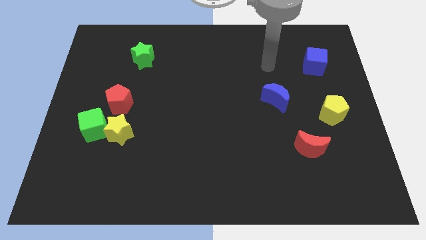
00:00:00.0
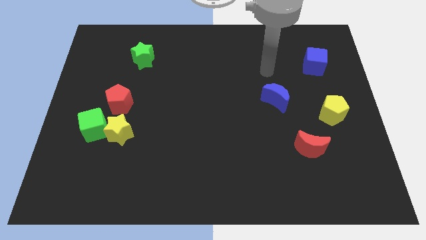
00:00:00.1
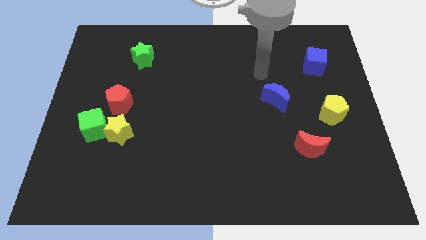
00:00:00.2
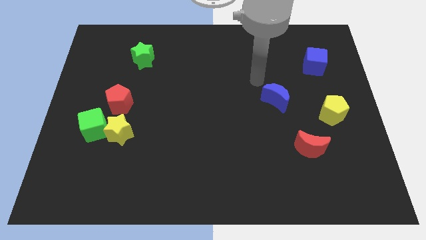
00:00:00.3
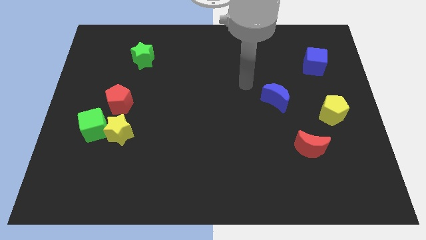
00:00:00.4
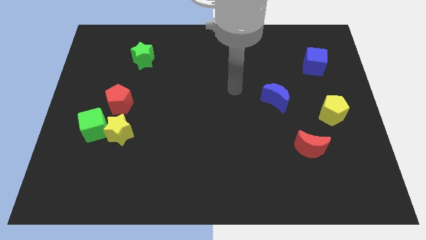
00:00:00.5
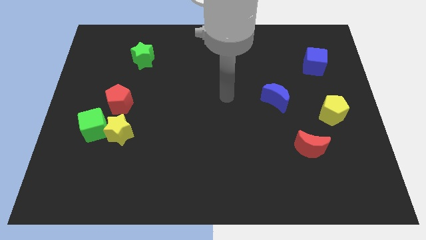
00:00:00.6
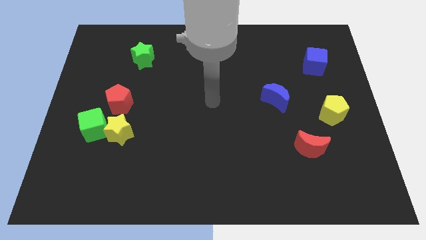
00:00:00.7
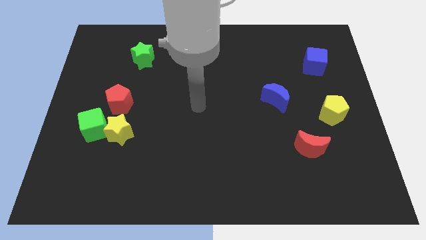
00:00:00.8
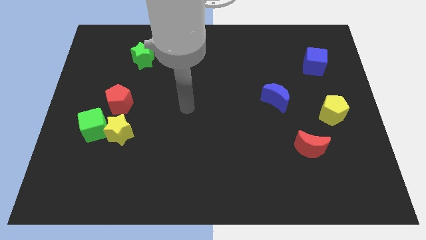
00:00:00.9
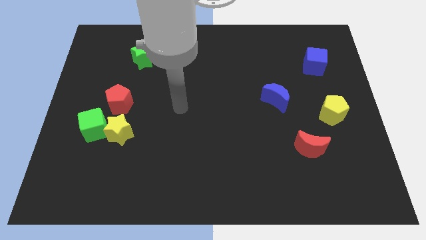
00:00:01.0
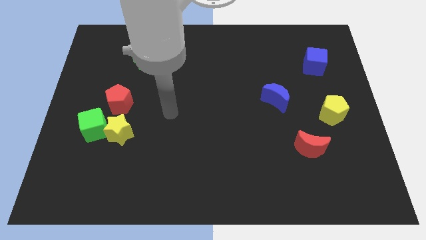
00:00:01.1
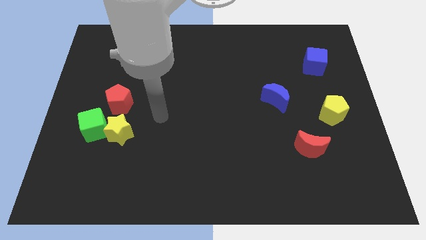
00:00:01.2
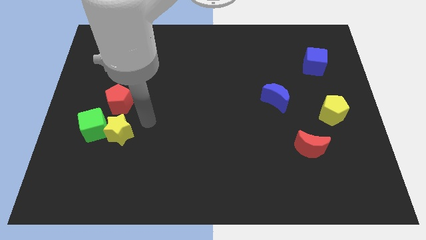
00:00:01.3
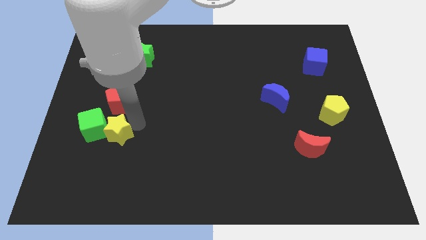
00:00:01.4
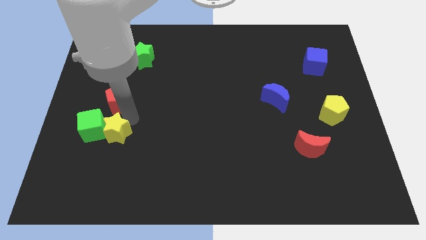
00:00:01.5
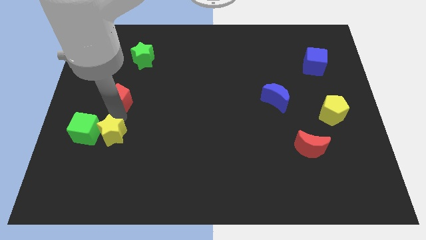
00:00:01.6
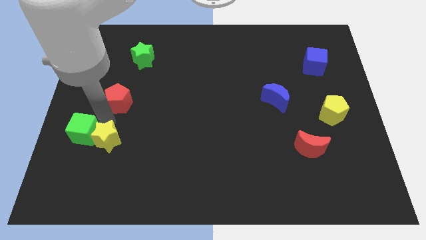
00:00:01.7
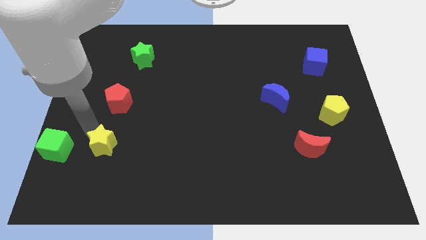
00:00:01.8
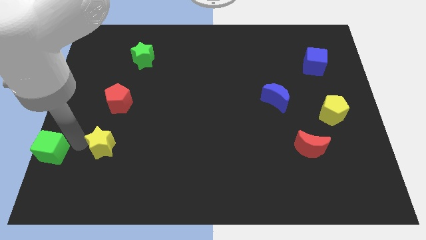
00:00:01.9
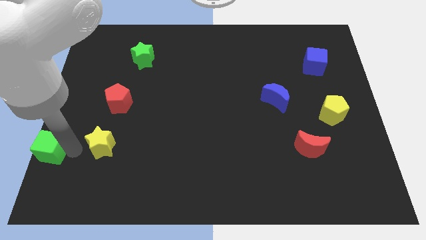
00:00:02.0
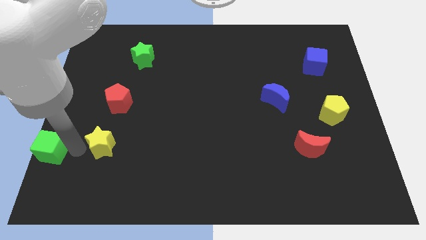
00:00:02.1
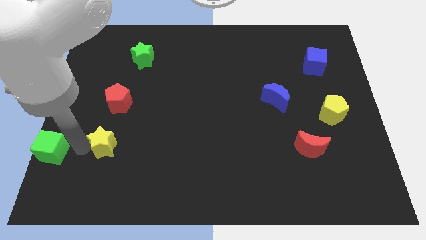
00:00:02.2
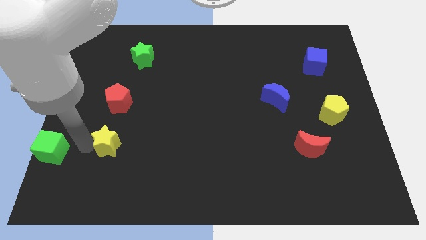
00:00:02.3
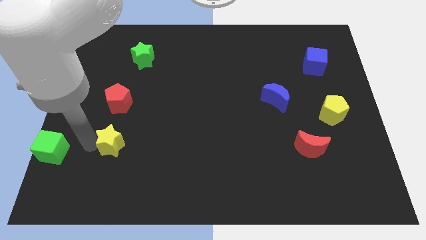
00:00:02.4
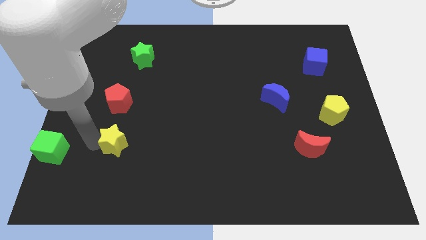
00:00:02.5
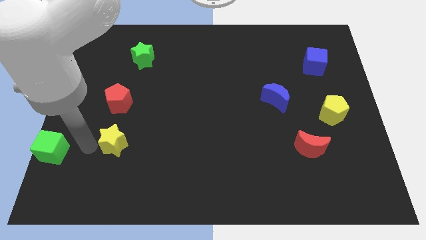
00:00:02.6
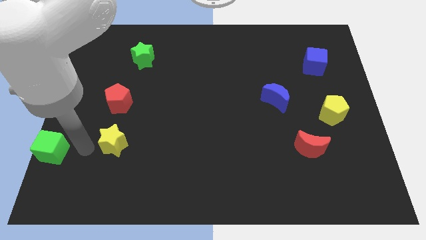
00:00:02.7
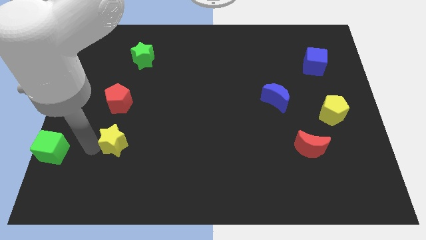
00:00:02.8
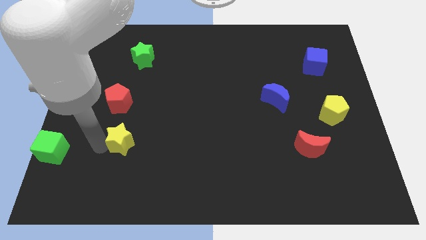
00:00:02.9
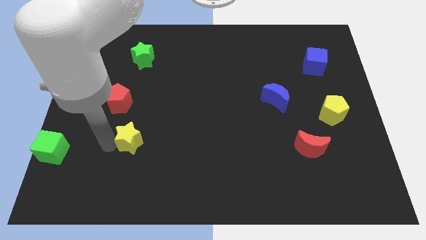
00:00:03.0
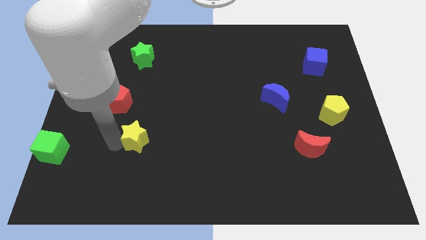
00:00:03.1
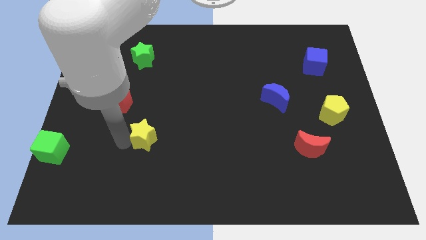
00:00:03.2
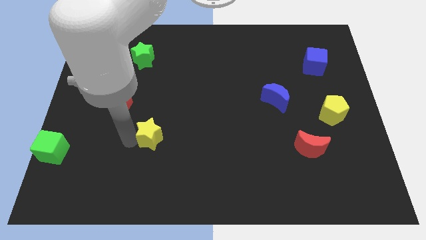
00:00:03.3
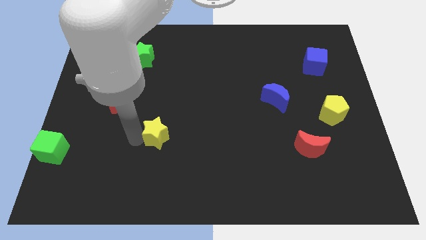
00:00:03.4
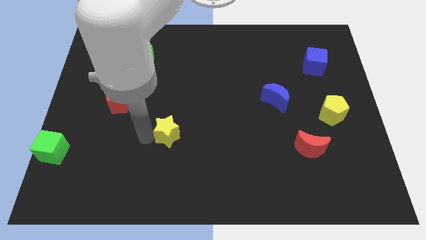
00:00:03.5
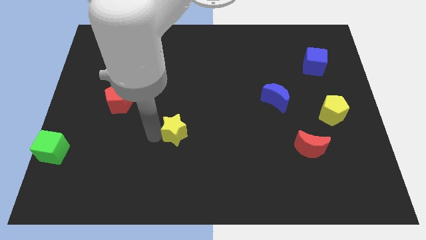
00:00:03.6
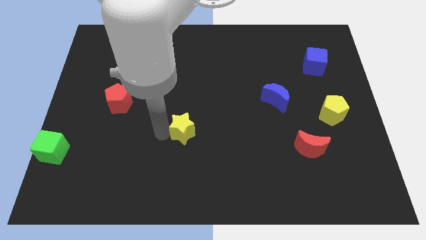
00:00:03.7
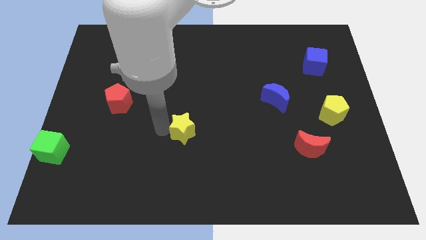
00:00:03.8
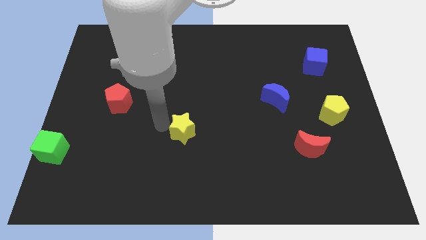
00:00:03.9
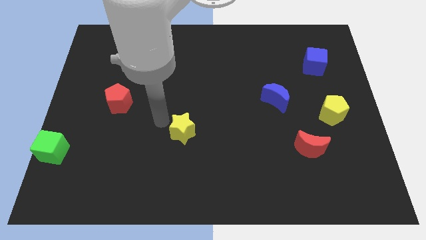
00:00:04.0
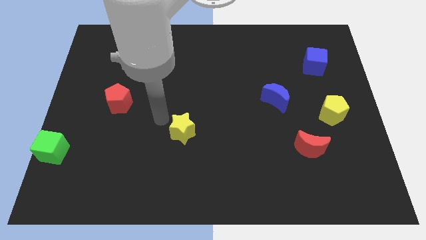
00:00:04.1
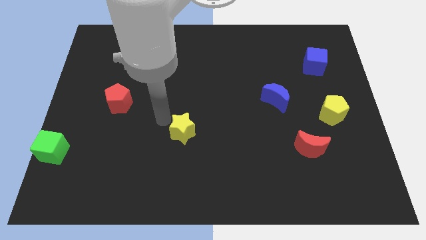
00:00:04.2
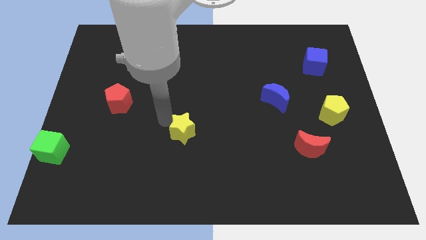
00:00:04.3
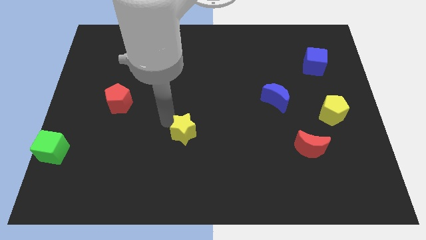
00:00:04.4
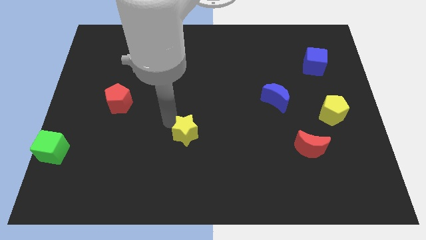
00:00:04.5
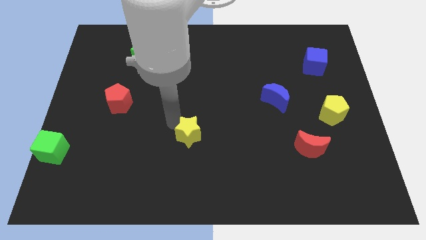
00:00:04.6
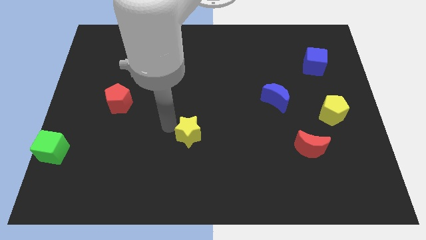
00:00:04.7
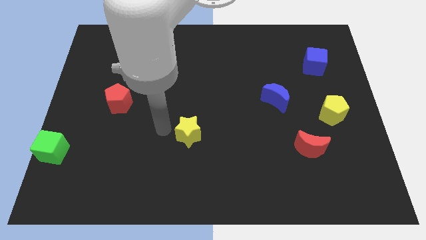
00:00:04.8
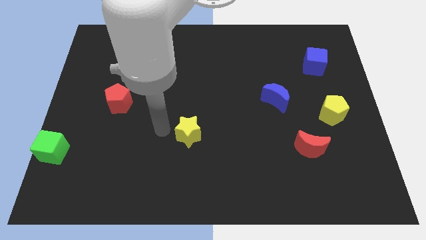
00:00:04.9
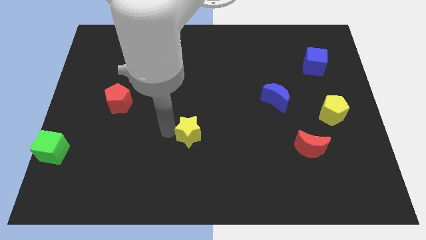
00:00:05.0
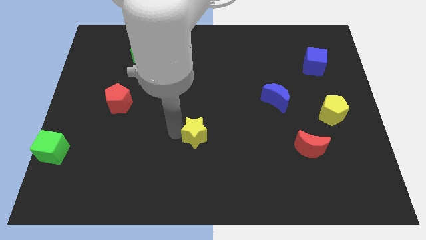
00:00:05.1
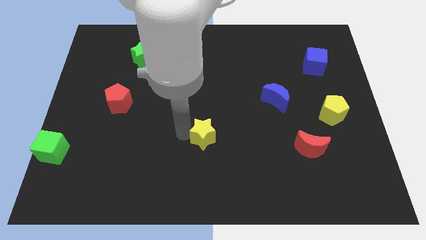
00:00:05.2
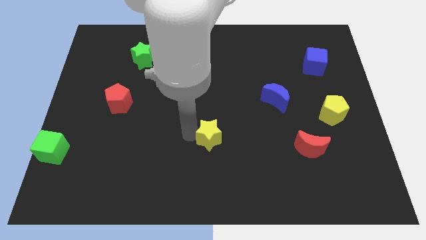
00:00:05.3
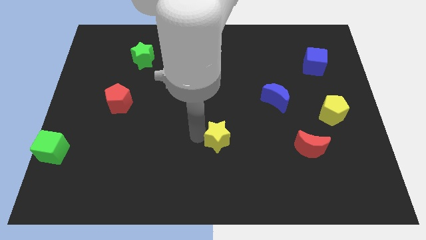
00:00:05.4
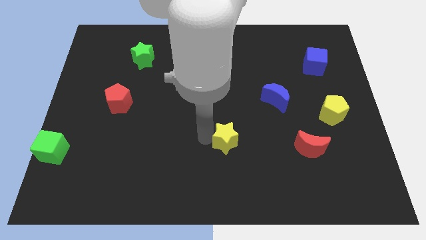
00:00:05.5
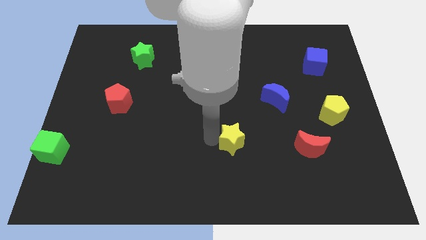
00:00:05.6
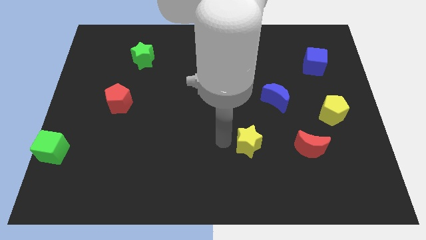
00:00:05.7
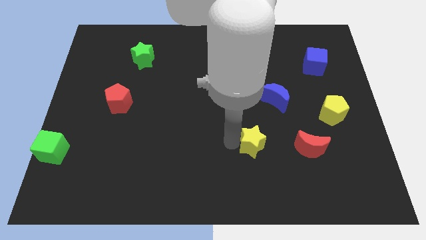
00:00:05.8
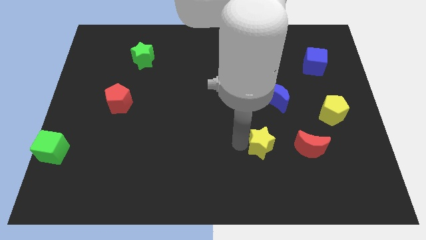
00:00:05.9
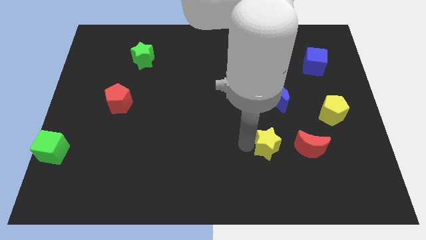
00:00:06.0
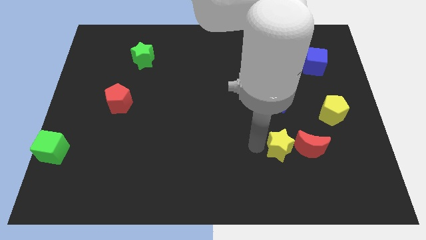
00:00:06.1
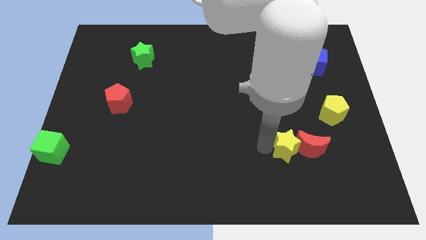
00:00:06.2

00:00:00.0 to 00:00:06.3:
slide the yellow star to the red moon

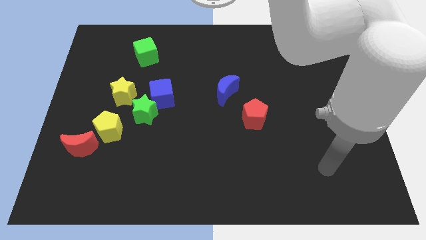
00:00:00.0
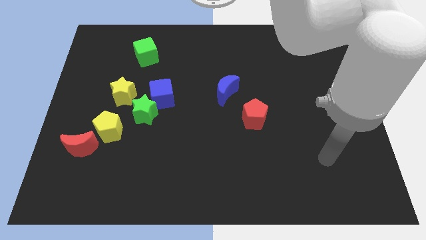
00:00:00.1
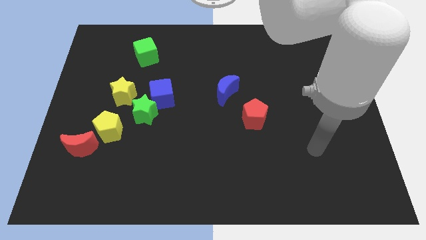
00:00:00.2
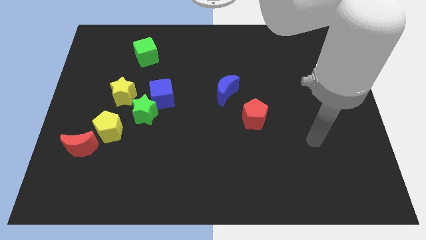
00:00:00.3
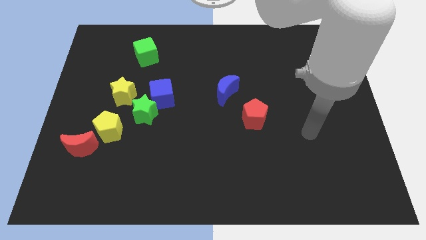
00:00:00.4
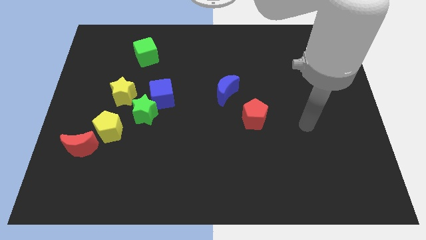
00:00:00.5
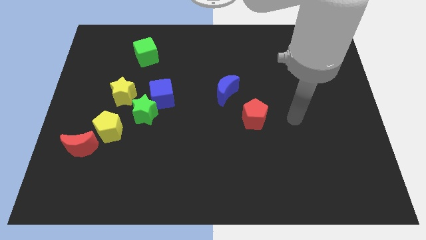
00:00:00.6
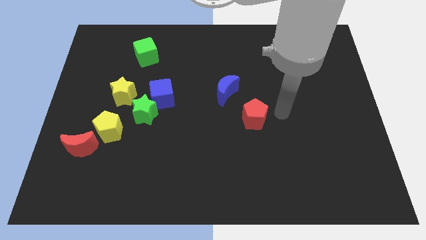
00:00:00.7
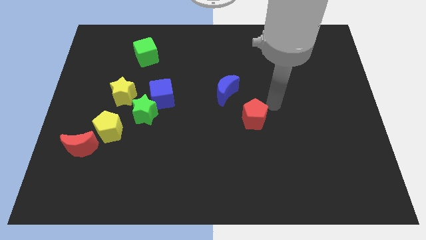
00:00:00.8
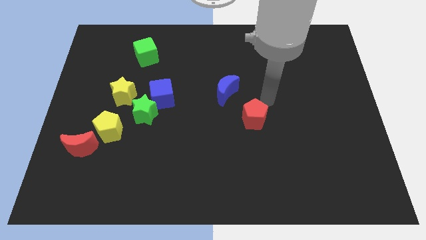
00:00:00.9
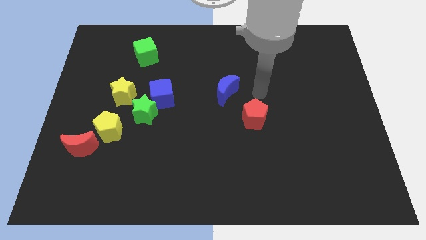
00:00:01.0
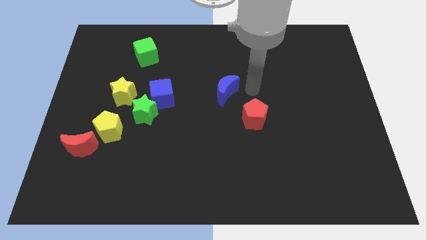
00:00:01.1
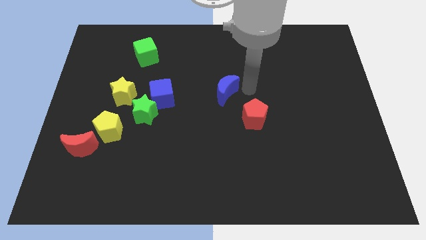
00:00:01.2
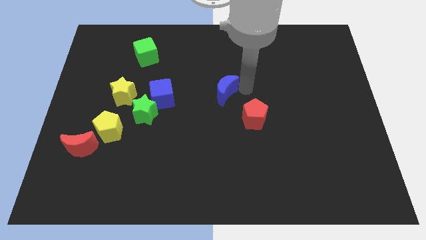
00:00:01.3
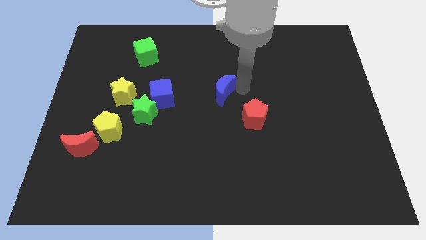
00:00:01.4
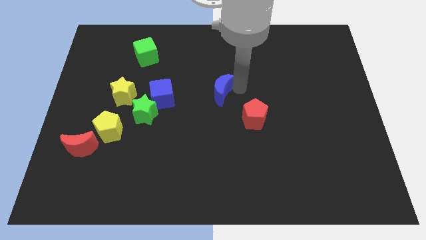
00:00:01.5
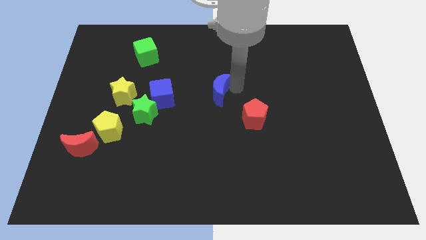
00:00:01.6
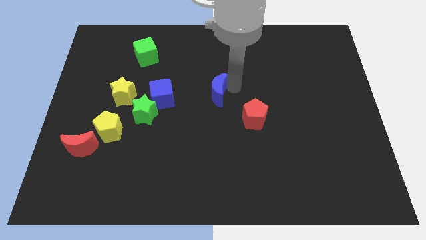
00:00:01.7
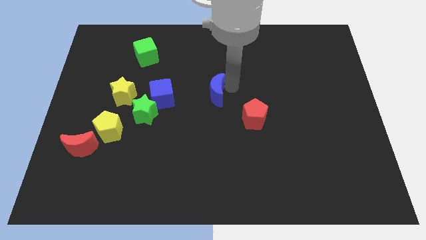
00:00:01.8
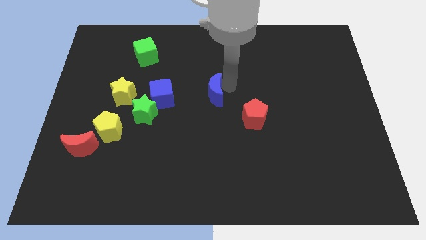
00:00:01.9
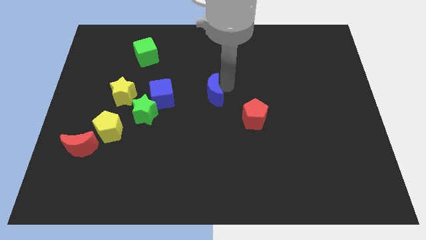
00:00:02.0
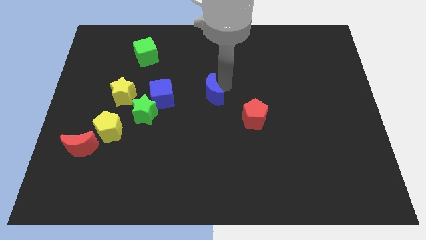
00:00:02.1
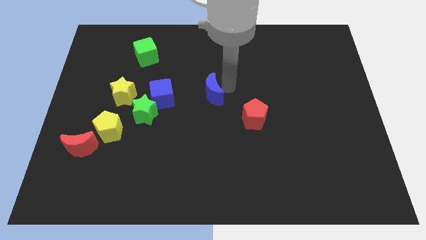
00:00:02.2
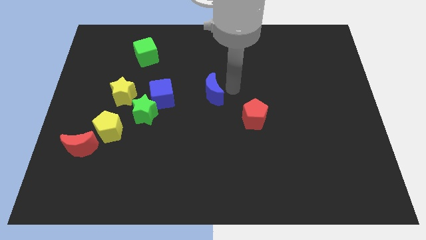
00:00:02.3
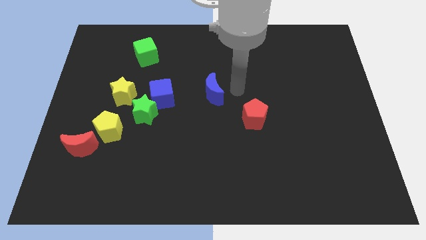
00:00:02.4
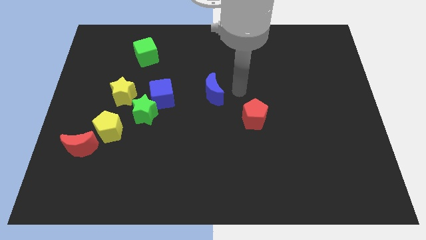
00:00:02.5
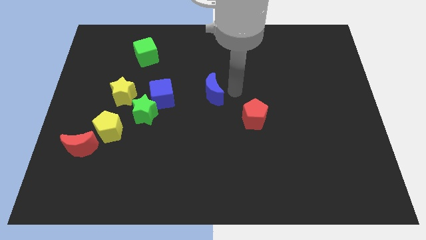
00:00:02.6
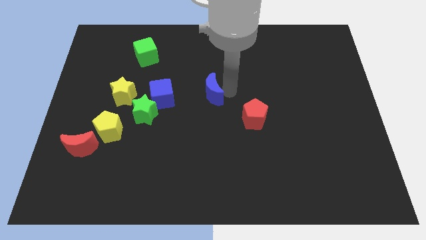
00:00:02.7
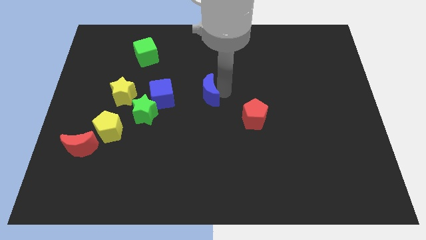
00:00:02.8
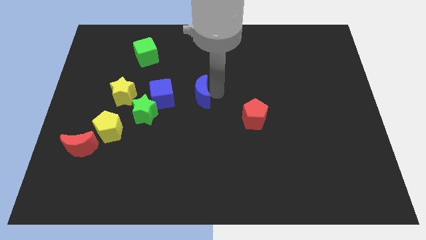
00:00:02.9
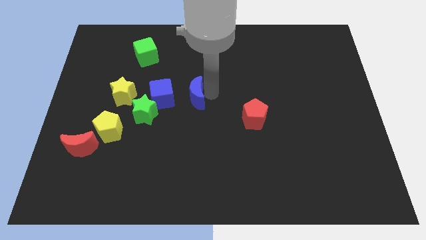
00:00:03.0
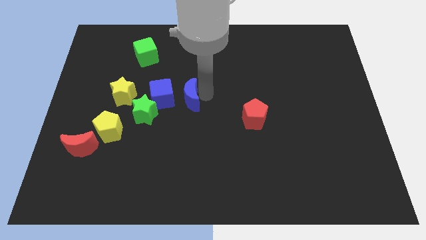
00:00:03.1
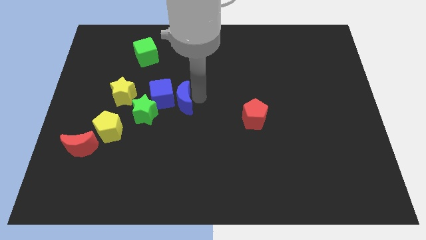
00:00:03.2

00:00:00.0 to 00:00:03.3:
push the blue moon to the blue cube
